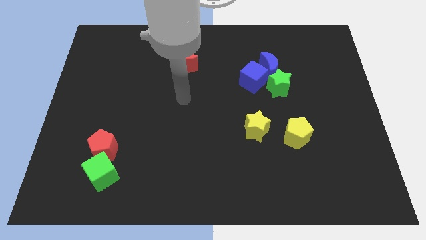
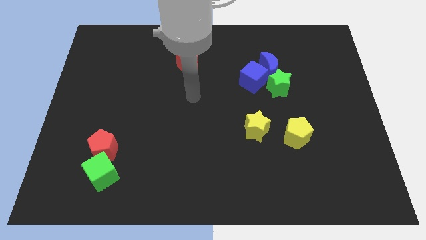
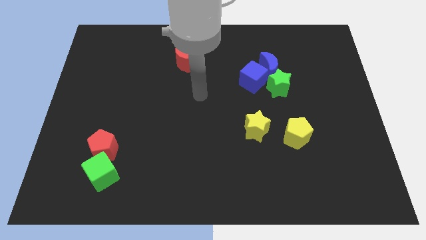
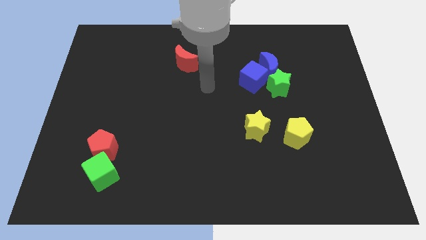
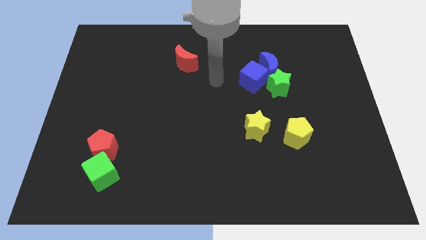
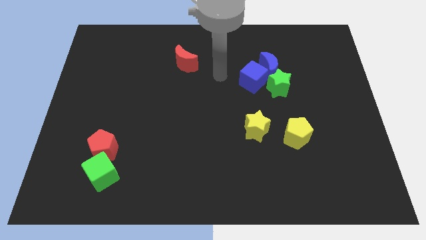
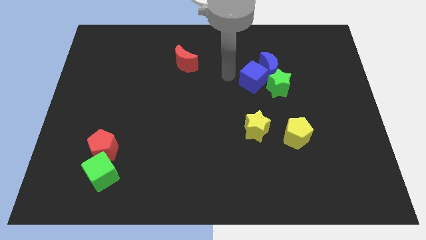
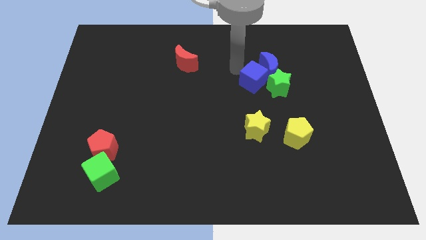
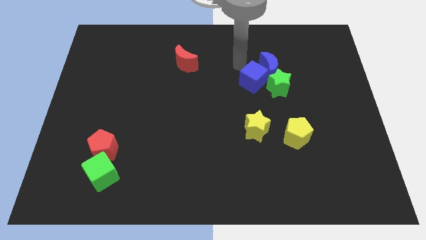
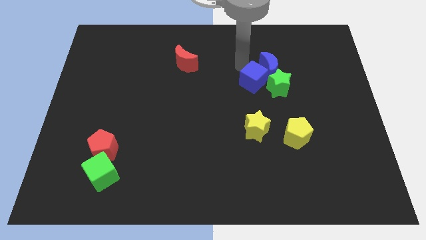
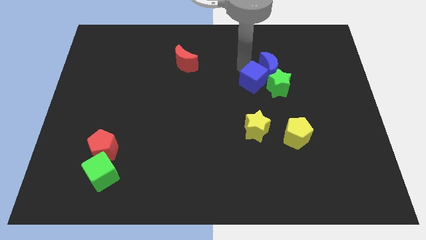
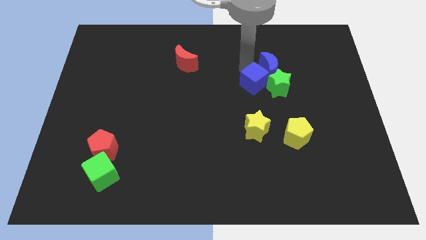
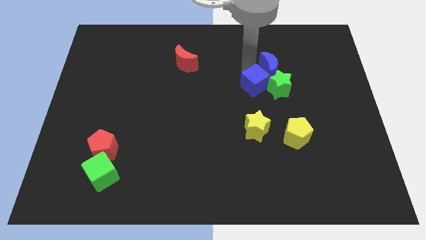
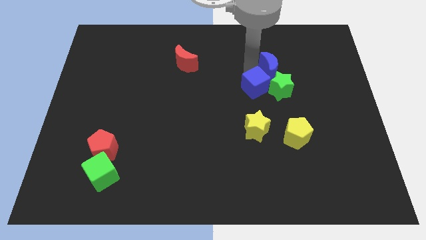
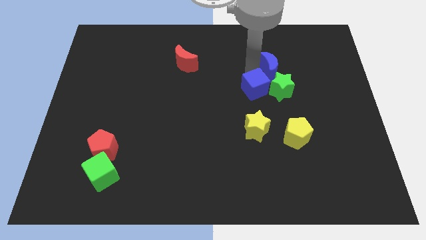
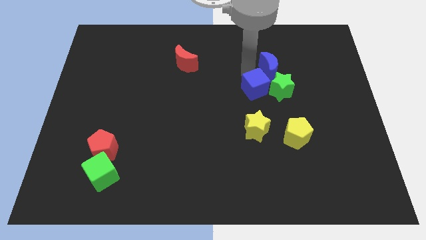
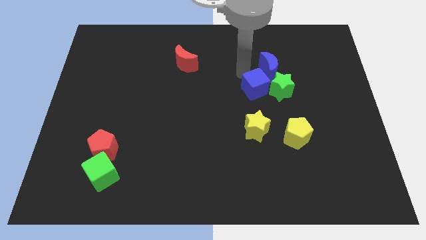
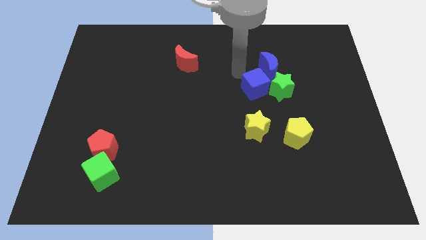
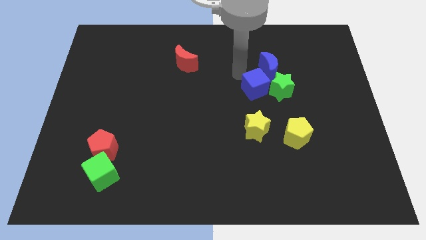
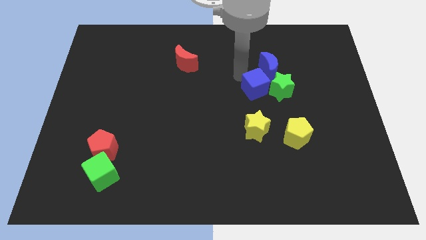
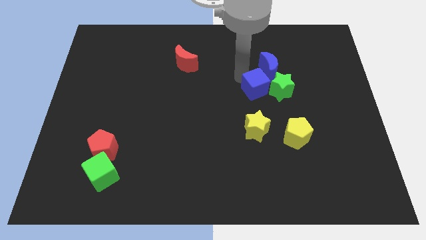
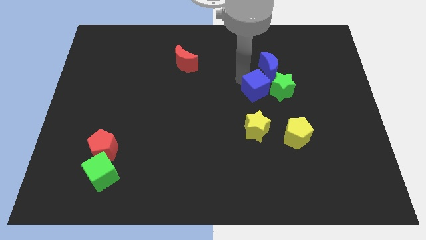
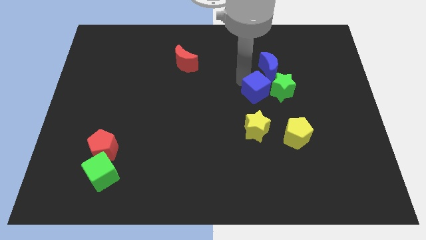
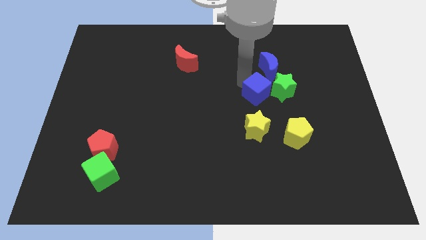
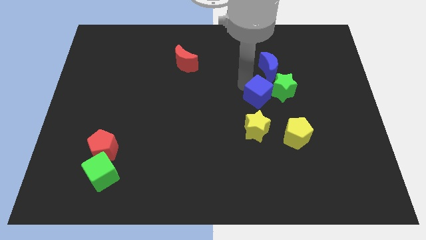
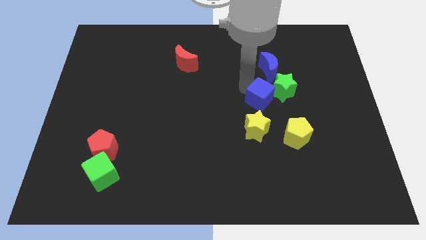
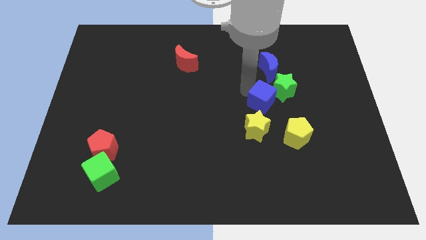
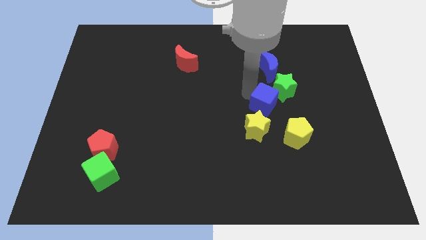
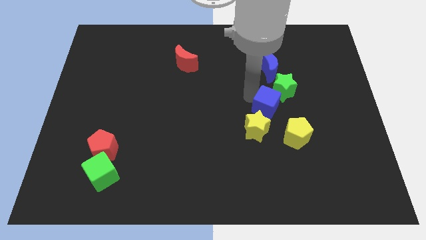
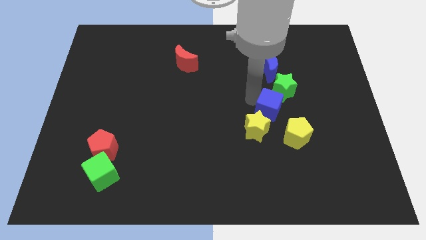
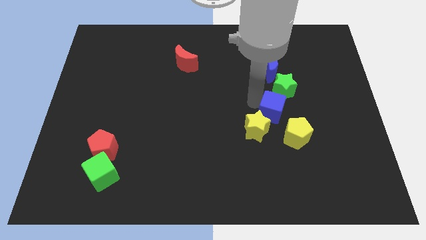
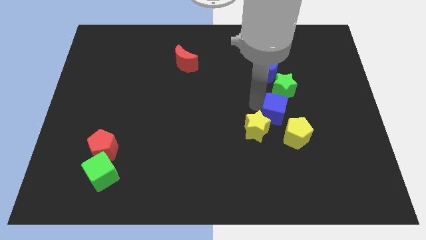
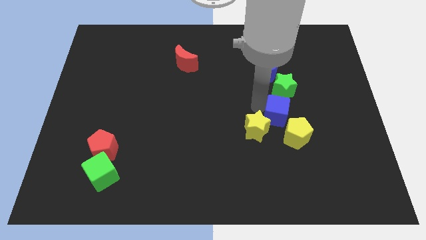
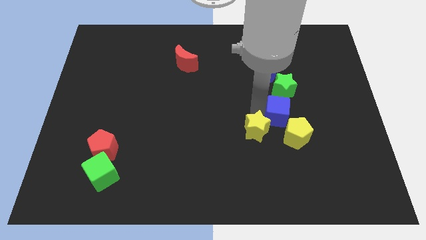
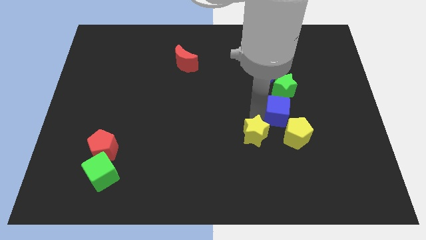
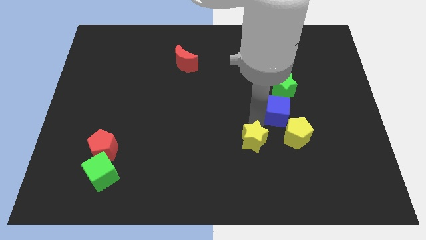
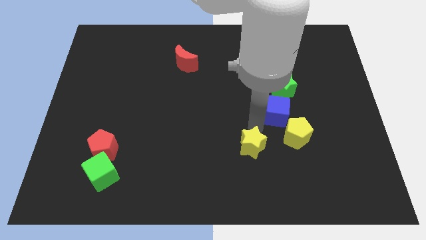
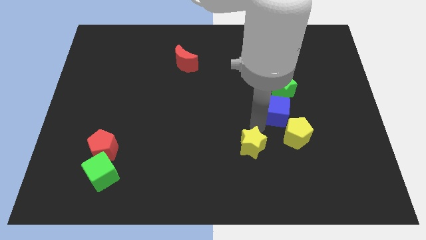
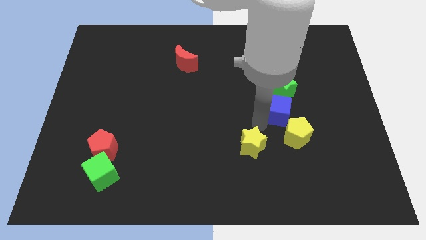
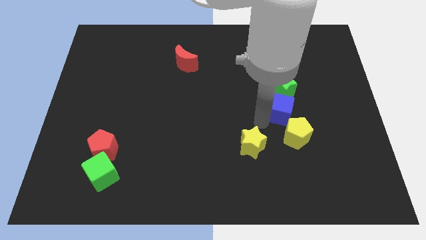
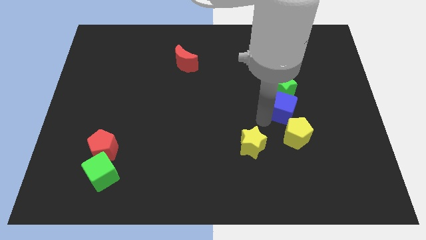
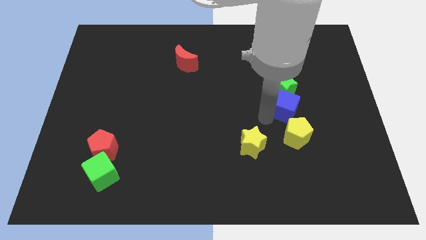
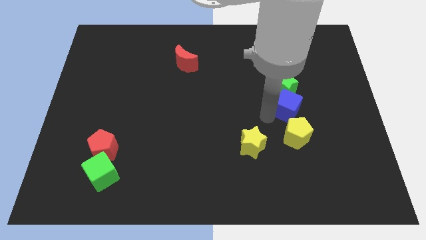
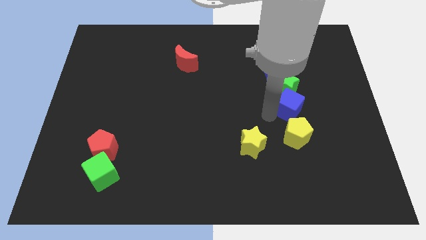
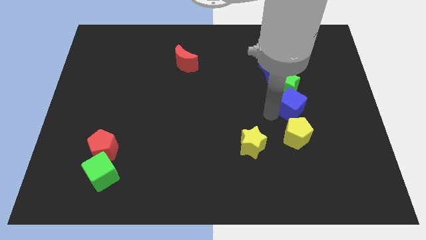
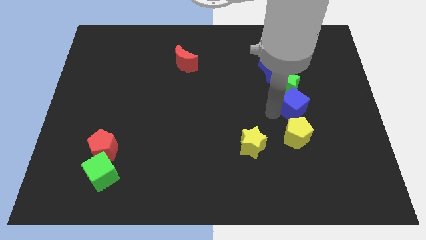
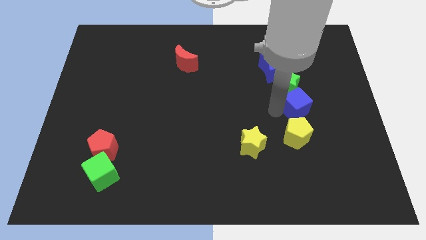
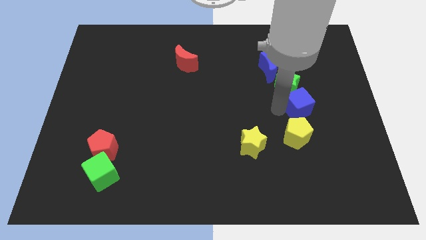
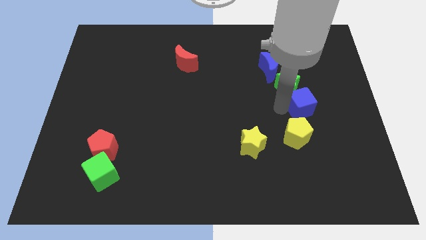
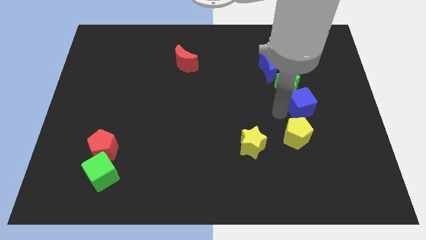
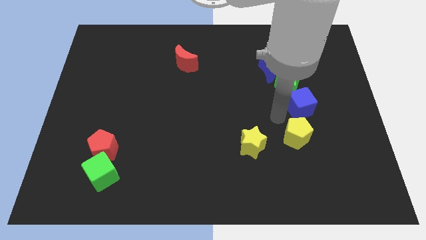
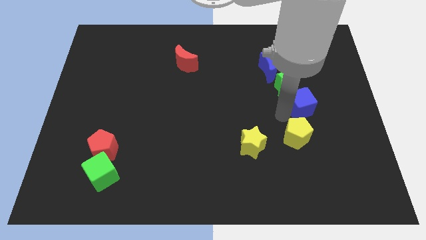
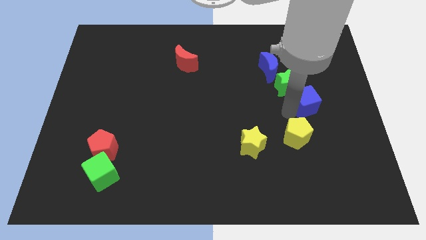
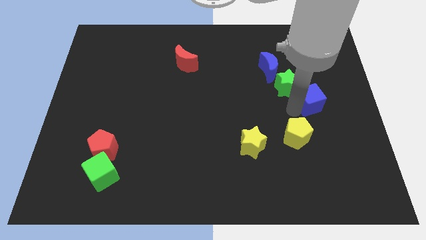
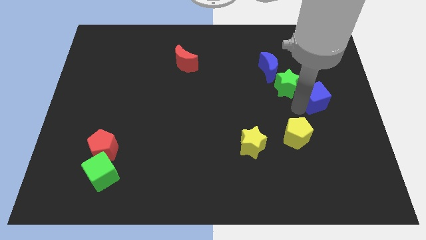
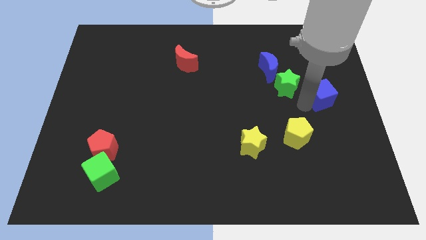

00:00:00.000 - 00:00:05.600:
slide the blue cube to the center right

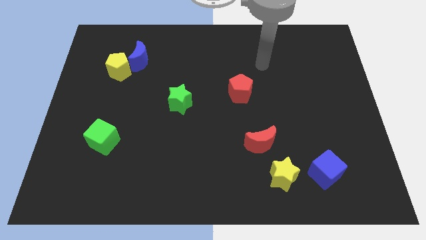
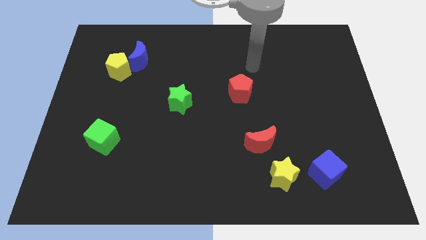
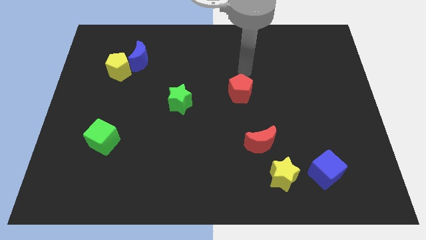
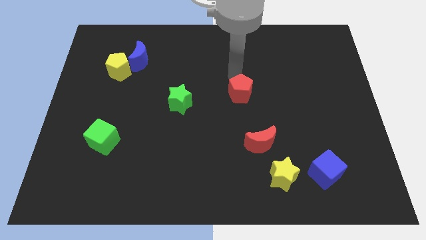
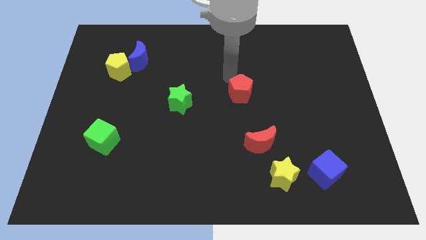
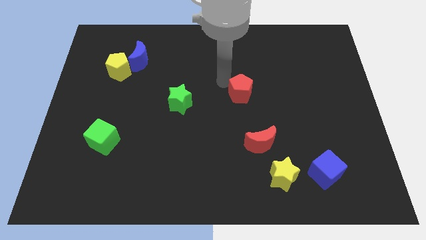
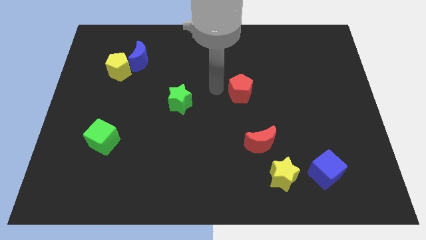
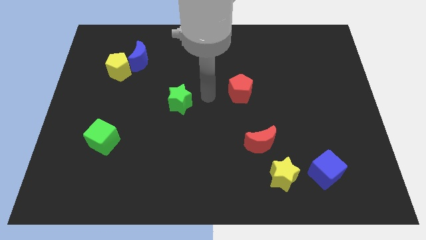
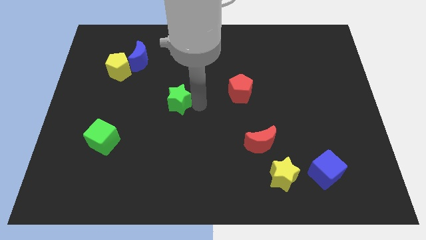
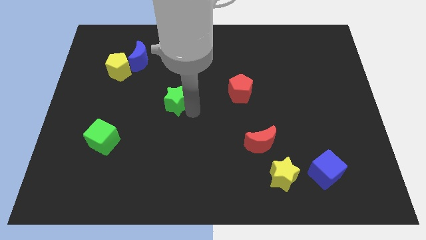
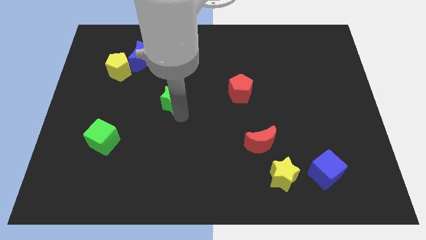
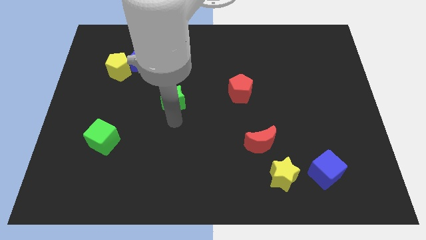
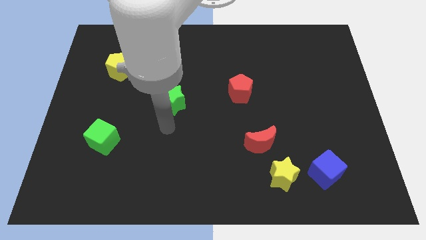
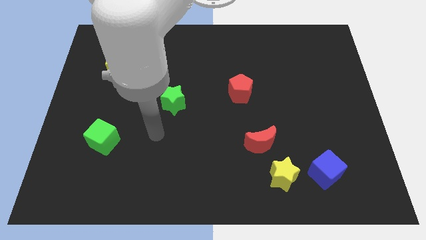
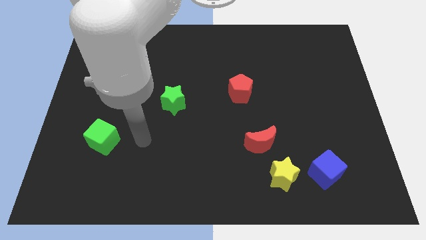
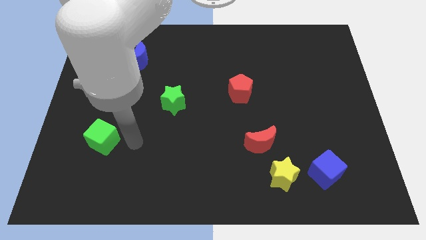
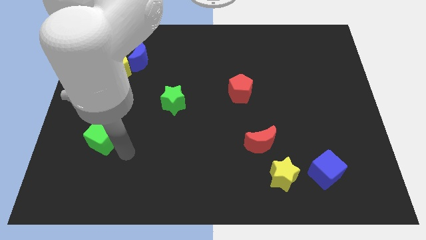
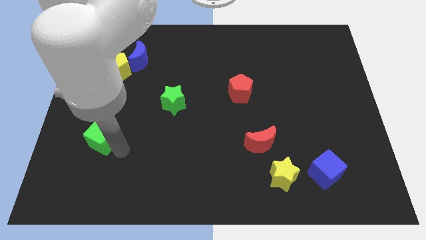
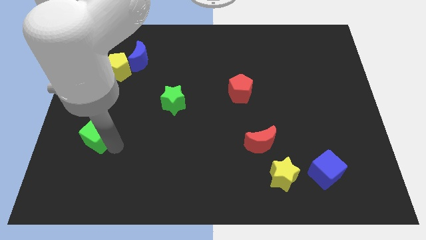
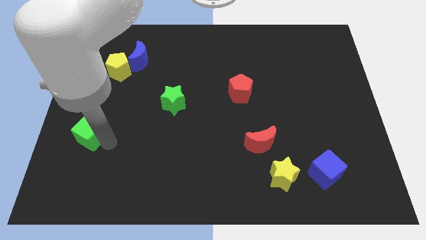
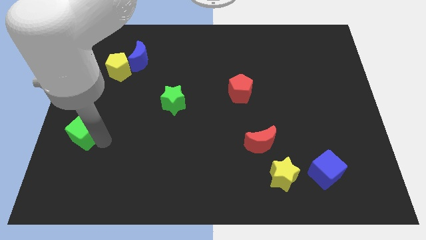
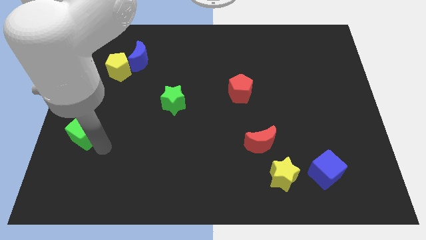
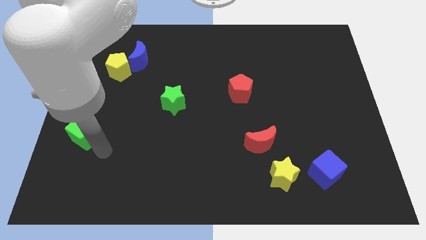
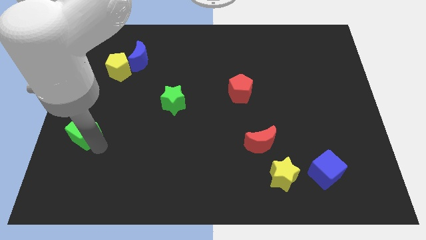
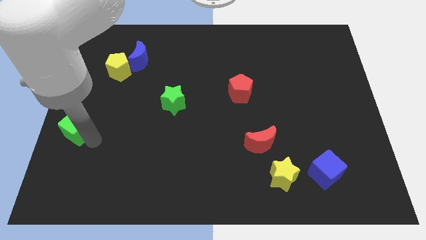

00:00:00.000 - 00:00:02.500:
move the green cube to the left side of the board
